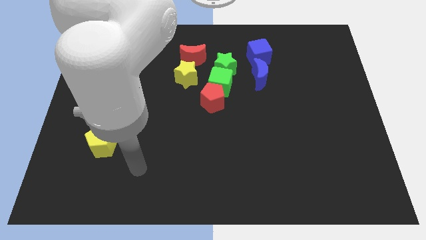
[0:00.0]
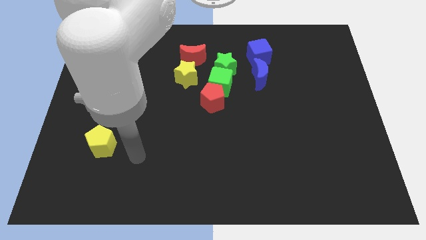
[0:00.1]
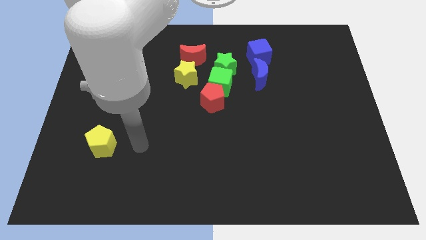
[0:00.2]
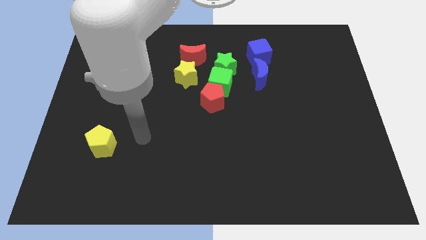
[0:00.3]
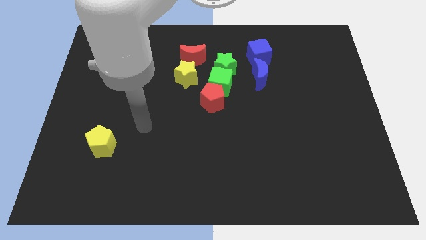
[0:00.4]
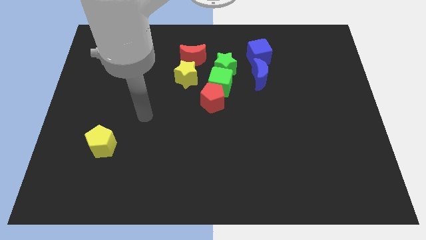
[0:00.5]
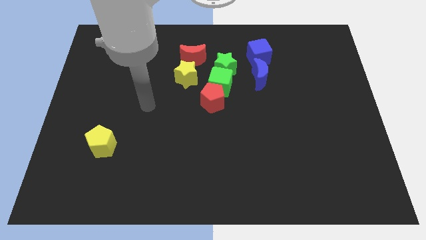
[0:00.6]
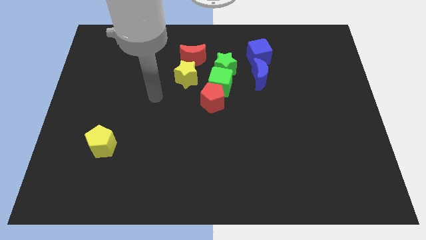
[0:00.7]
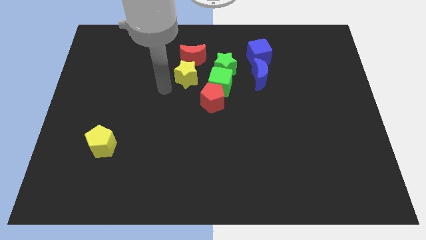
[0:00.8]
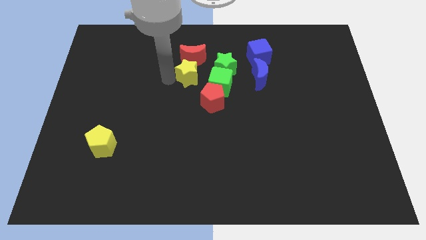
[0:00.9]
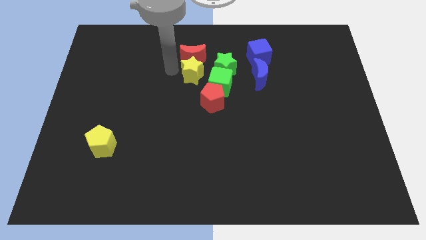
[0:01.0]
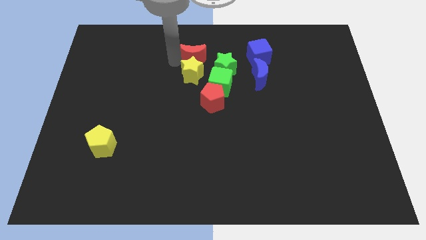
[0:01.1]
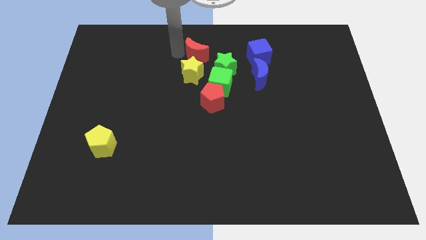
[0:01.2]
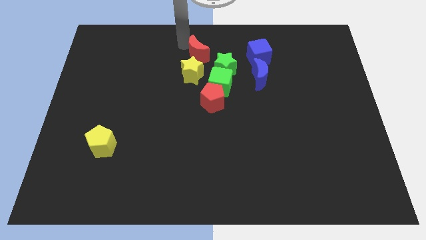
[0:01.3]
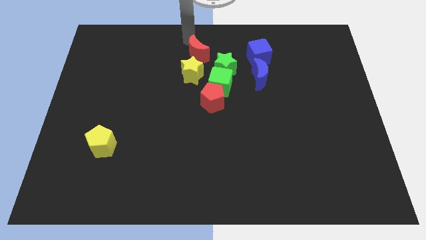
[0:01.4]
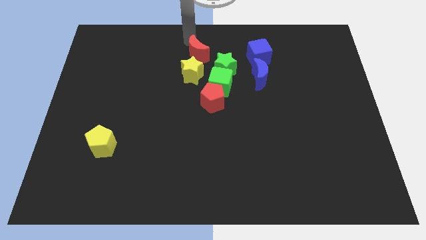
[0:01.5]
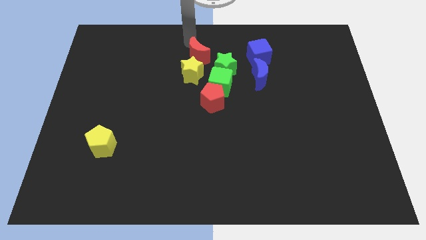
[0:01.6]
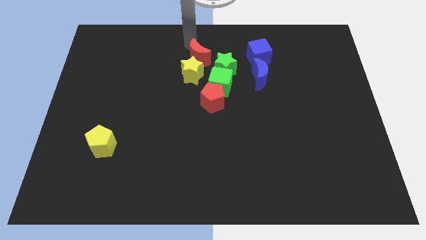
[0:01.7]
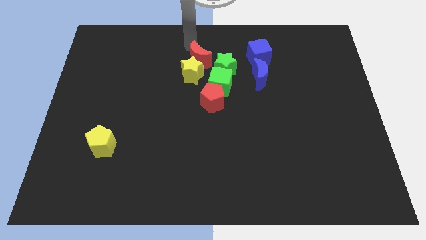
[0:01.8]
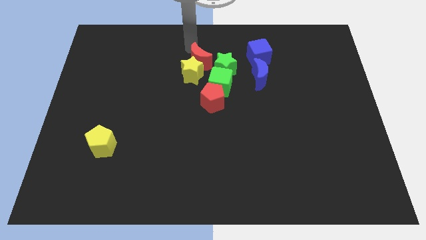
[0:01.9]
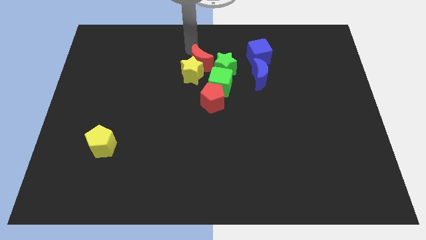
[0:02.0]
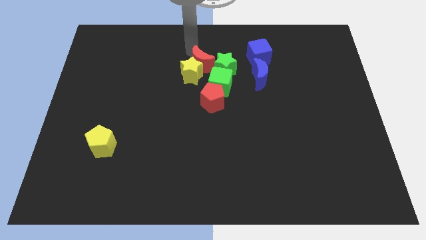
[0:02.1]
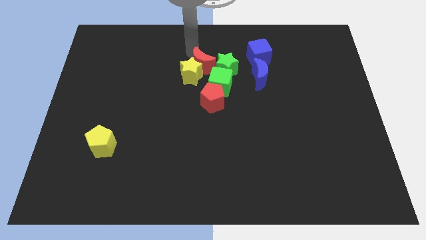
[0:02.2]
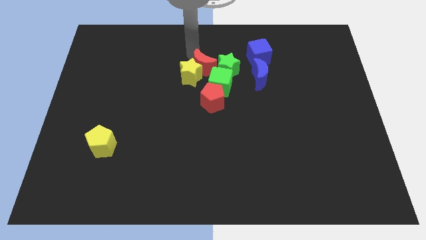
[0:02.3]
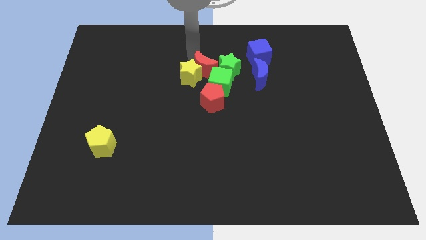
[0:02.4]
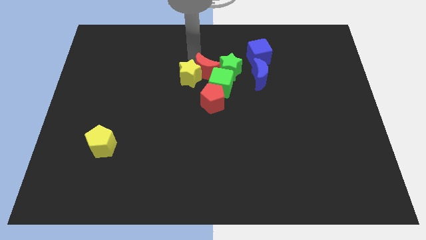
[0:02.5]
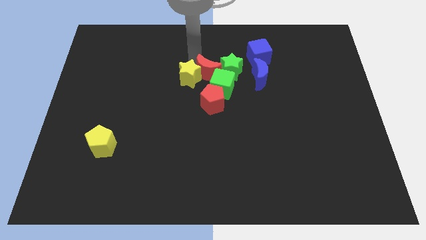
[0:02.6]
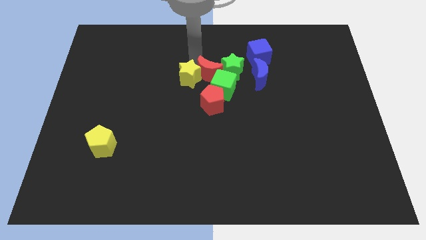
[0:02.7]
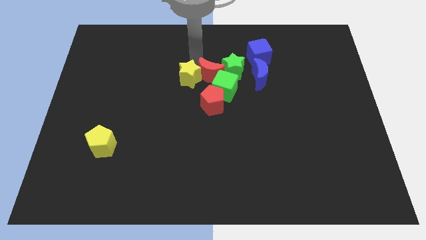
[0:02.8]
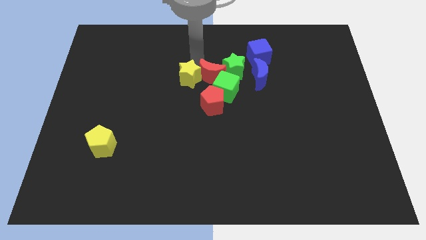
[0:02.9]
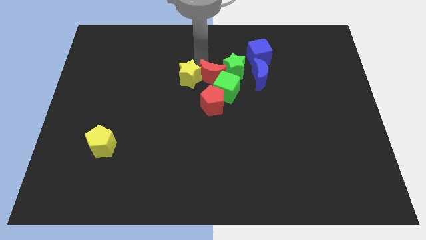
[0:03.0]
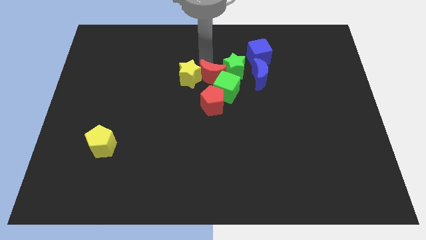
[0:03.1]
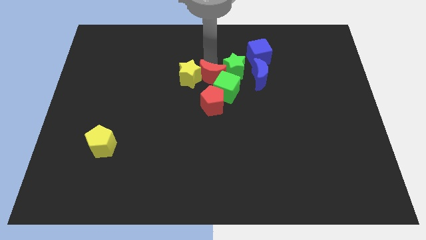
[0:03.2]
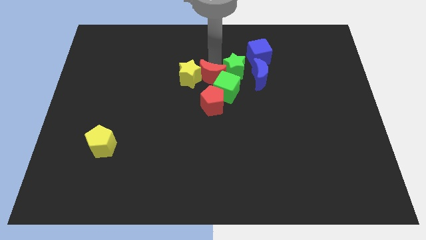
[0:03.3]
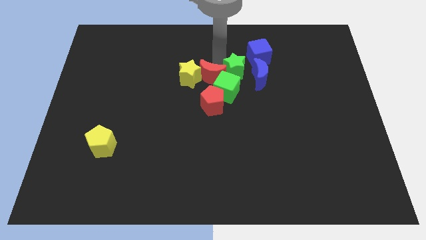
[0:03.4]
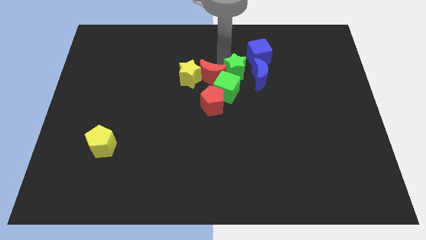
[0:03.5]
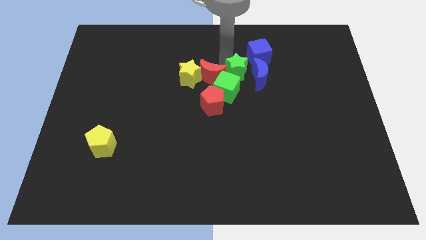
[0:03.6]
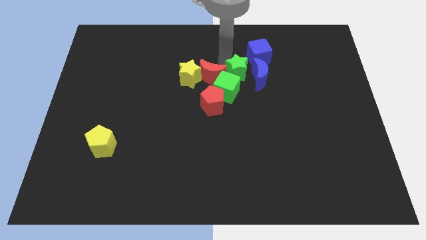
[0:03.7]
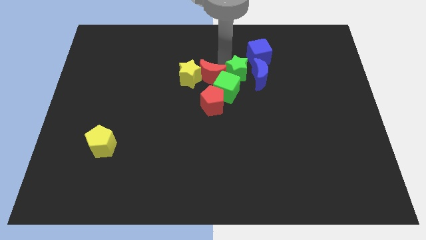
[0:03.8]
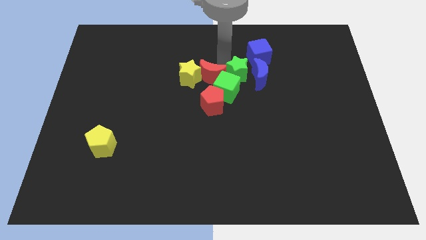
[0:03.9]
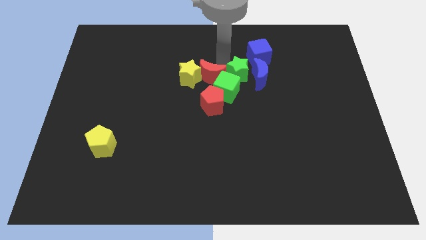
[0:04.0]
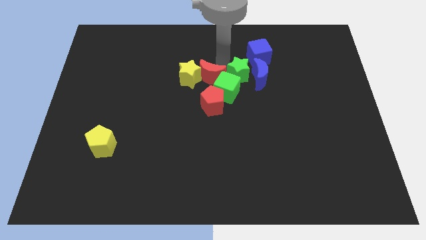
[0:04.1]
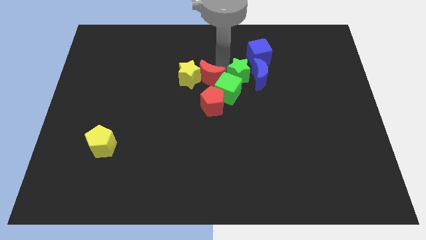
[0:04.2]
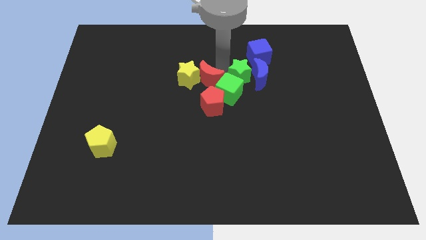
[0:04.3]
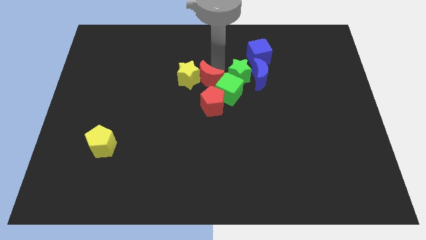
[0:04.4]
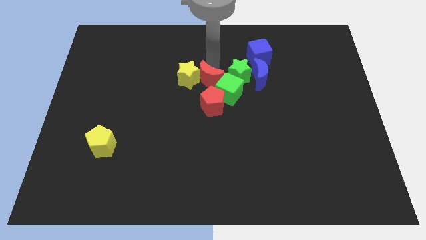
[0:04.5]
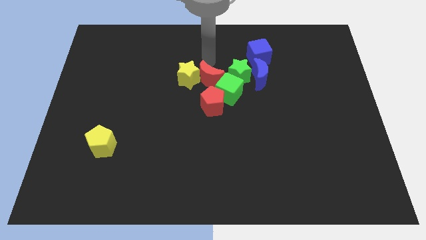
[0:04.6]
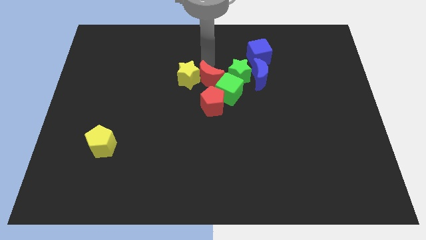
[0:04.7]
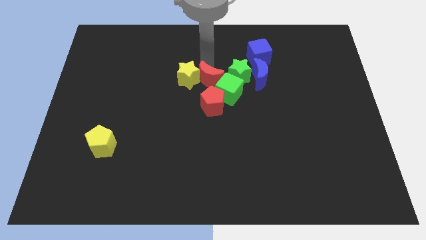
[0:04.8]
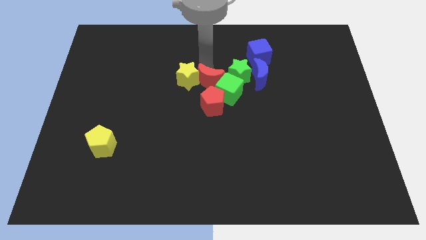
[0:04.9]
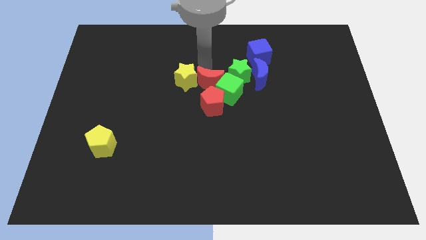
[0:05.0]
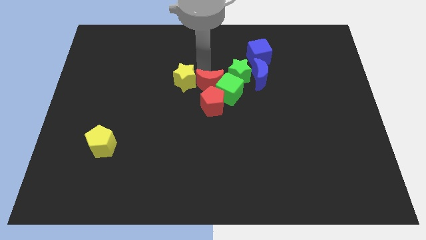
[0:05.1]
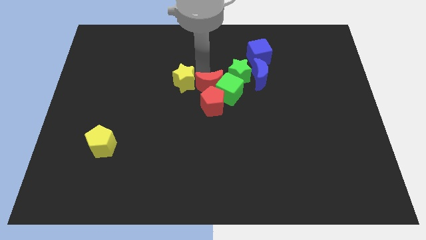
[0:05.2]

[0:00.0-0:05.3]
put the red moon towards the red pentagon

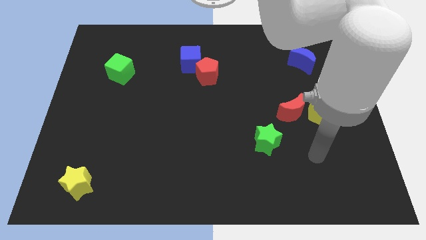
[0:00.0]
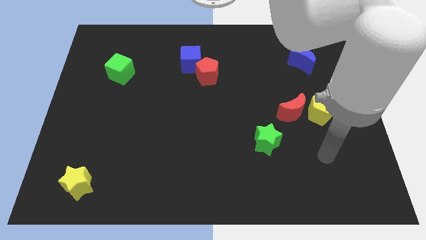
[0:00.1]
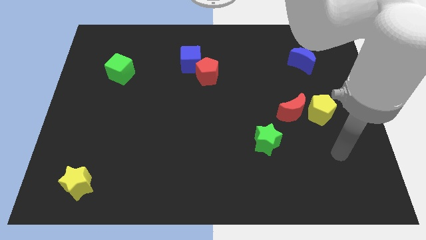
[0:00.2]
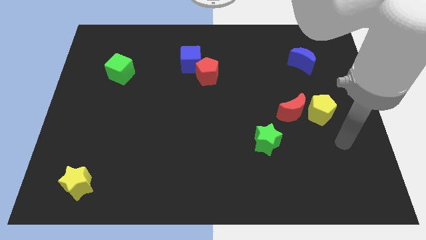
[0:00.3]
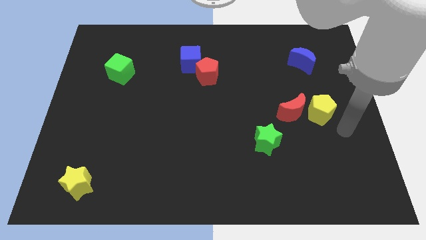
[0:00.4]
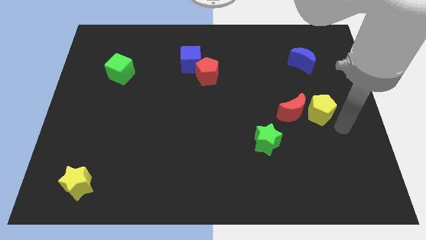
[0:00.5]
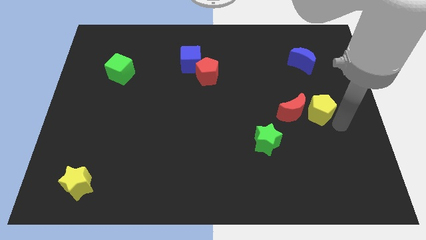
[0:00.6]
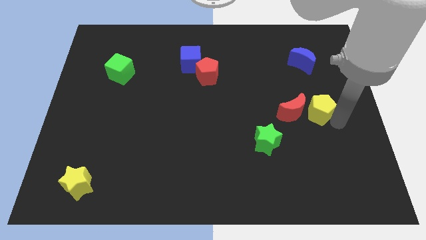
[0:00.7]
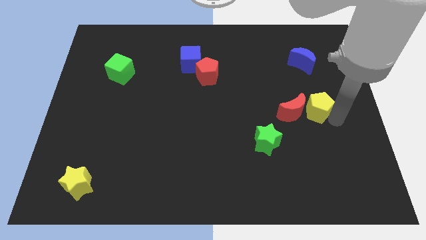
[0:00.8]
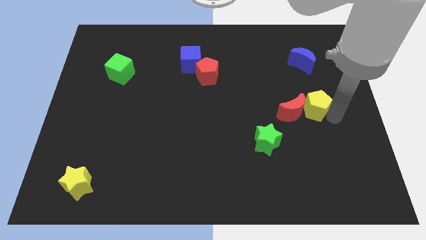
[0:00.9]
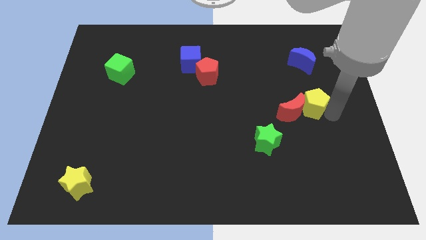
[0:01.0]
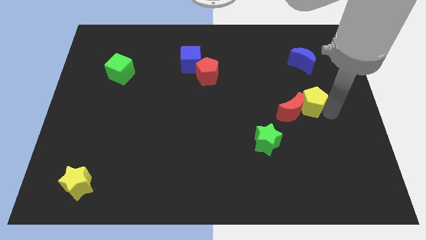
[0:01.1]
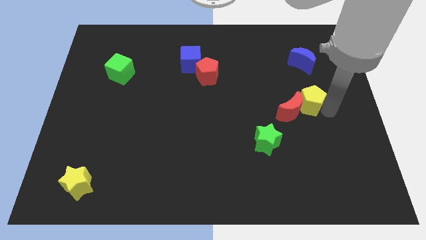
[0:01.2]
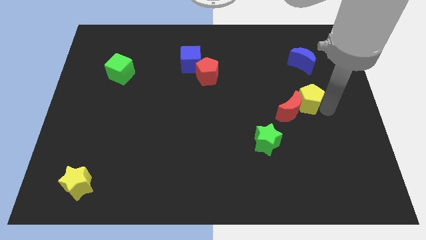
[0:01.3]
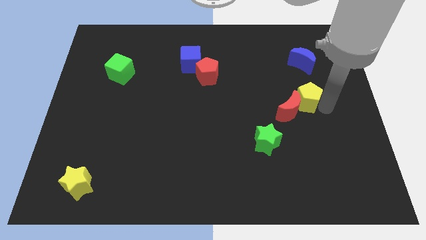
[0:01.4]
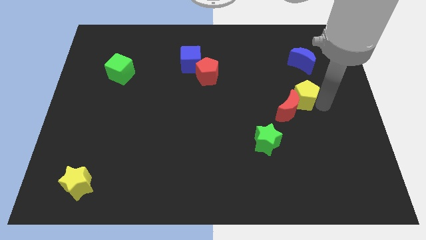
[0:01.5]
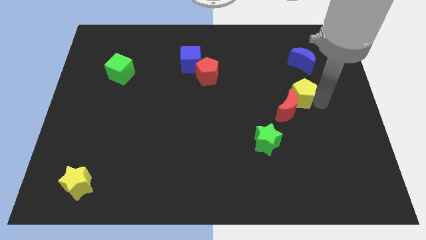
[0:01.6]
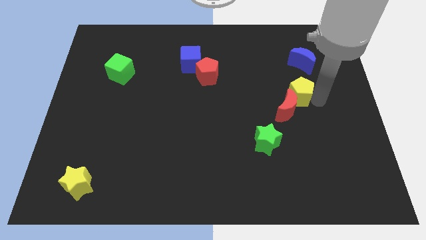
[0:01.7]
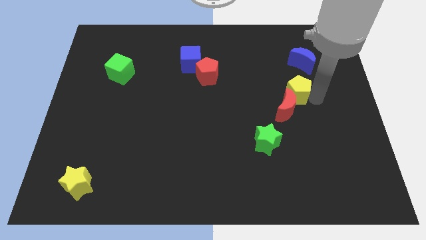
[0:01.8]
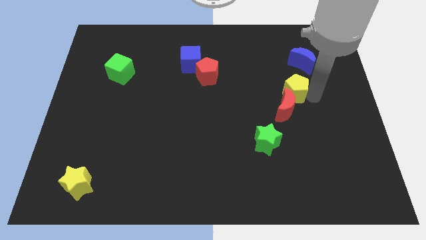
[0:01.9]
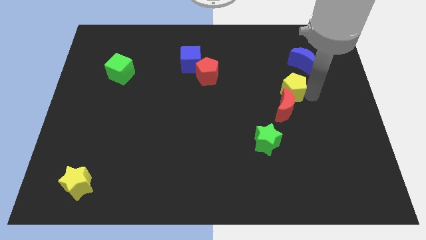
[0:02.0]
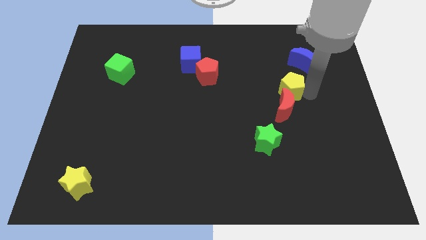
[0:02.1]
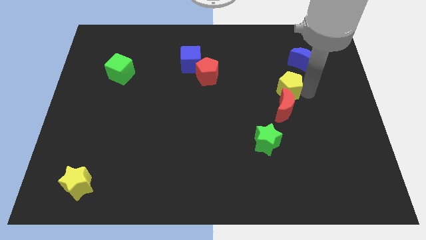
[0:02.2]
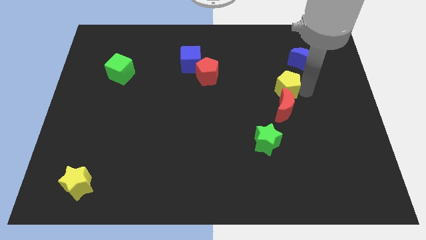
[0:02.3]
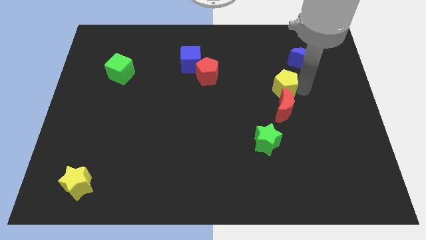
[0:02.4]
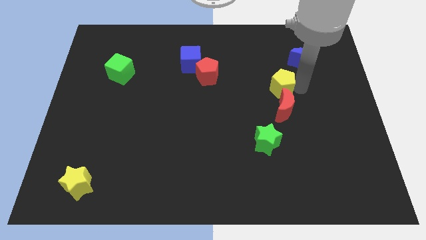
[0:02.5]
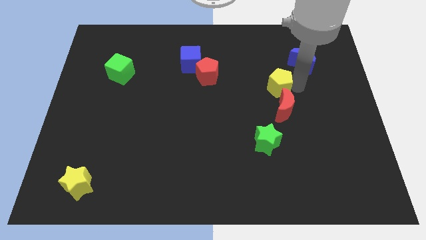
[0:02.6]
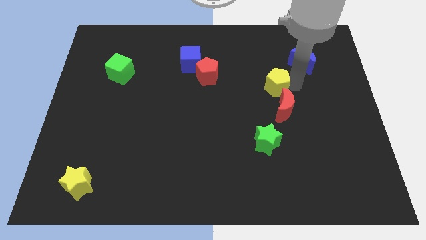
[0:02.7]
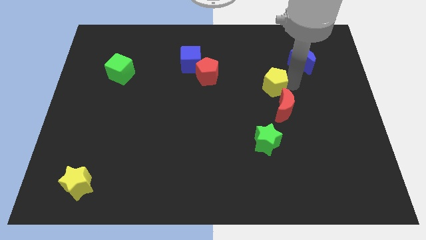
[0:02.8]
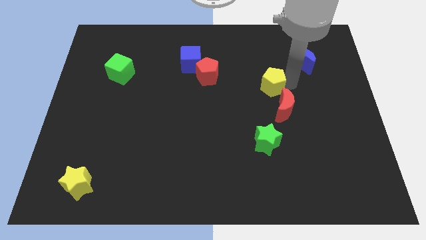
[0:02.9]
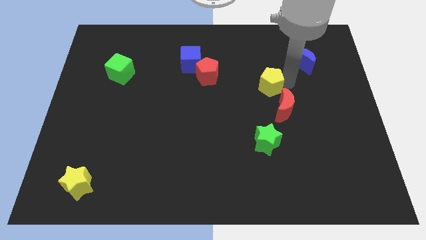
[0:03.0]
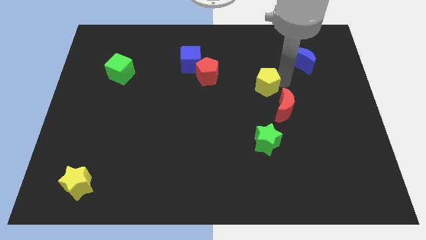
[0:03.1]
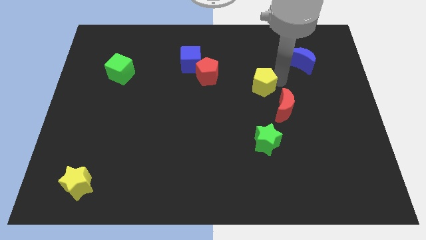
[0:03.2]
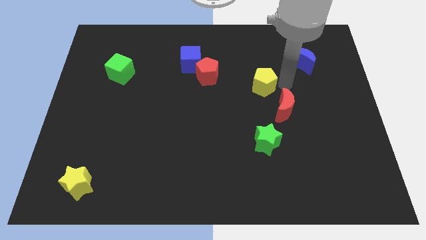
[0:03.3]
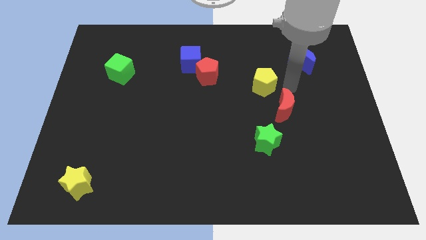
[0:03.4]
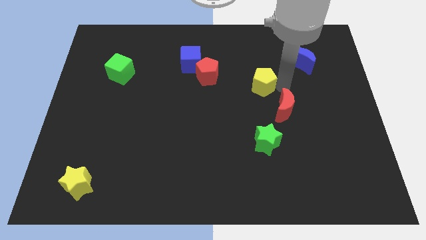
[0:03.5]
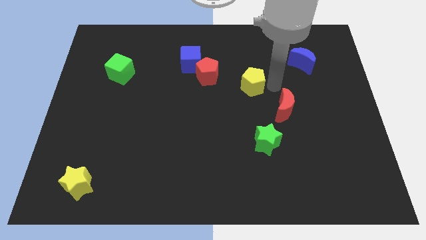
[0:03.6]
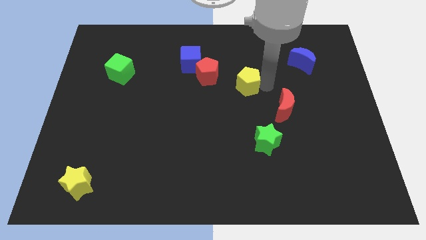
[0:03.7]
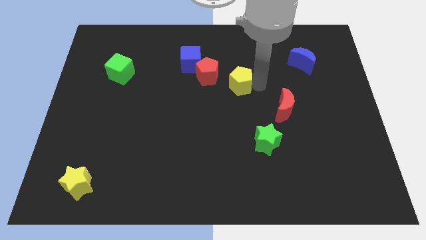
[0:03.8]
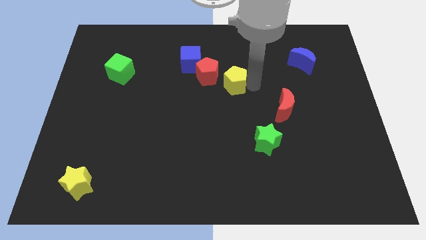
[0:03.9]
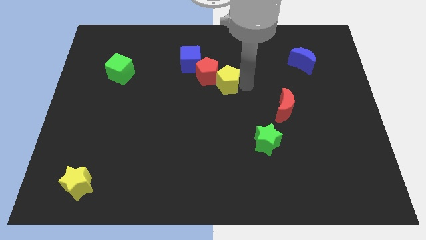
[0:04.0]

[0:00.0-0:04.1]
move the yellow pentagon to the red pentagon
